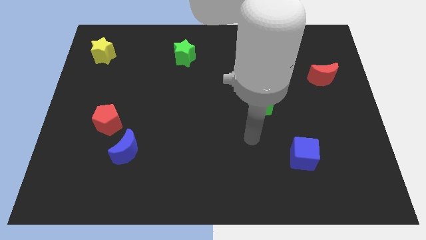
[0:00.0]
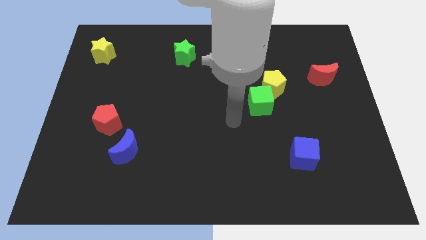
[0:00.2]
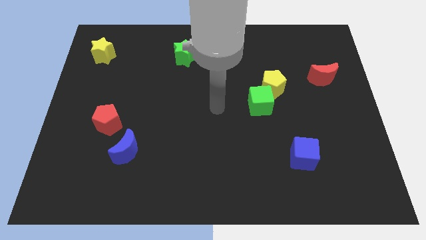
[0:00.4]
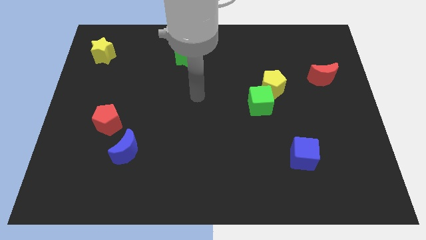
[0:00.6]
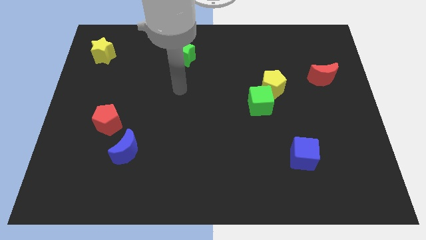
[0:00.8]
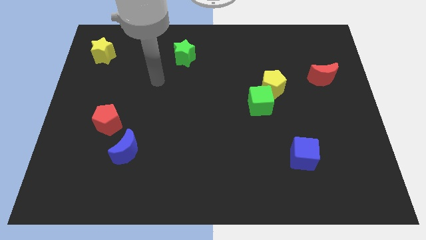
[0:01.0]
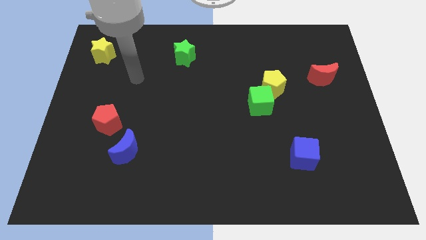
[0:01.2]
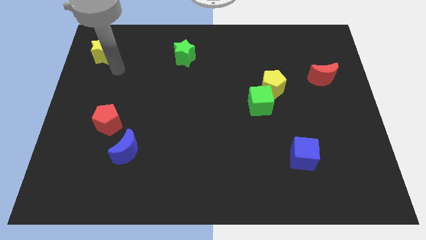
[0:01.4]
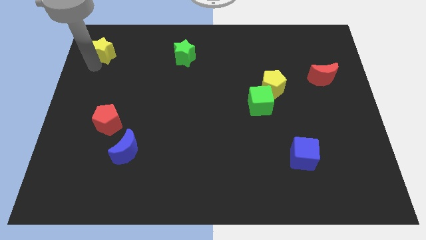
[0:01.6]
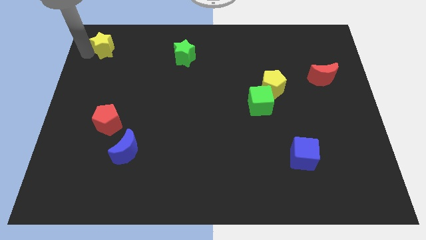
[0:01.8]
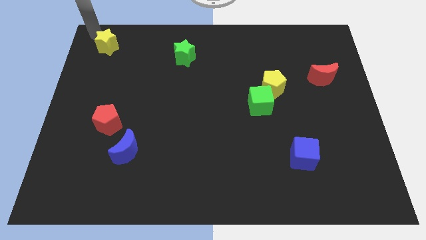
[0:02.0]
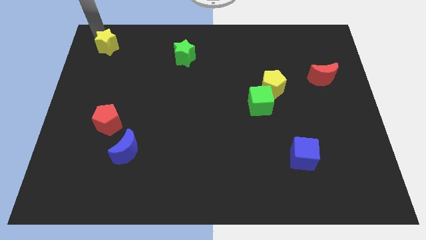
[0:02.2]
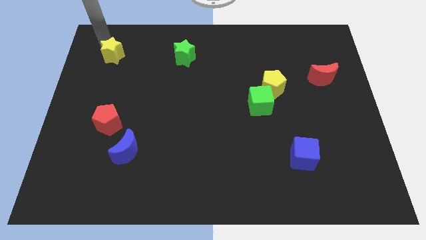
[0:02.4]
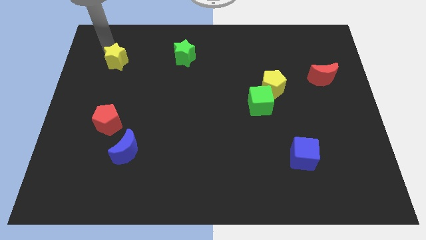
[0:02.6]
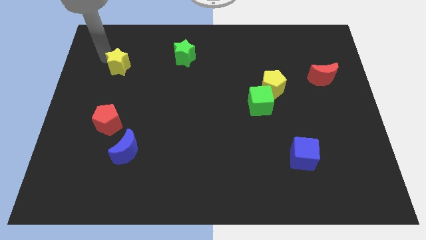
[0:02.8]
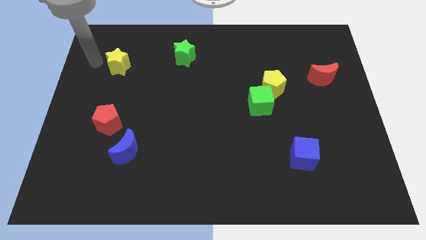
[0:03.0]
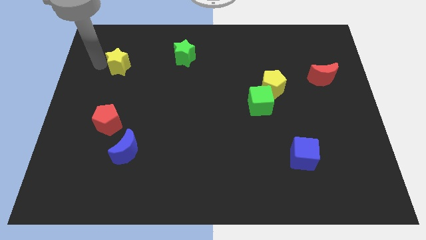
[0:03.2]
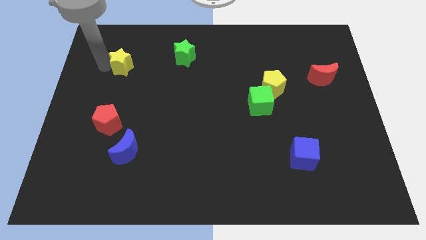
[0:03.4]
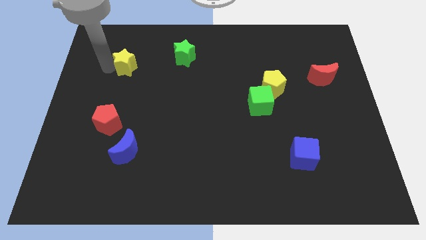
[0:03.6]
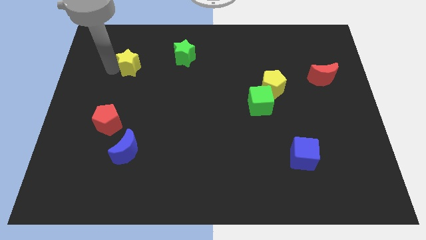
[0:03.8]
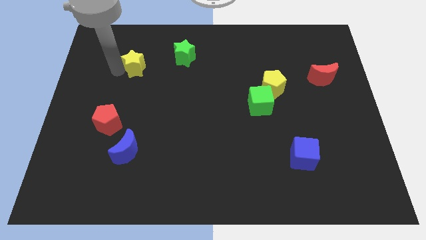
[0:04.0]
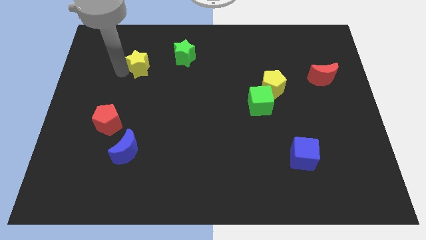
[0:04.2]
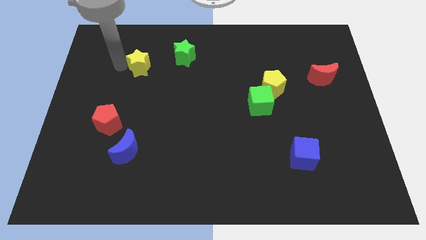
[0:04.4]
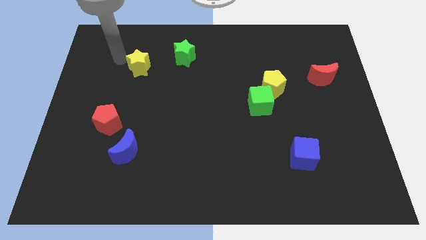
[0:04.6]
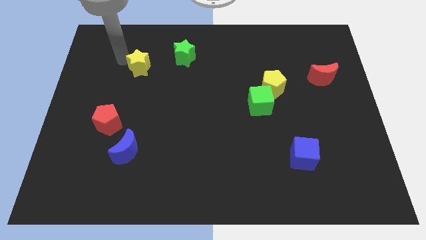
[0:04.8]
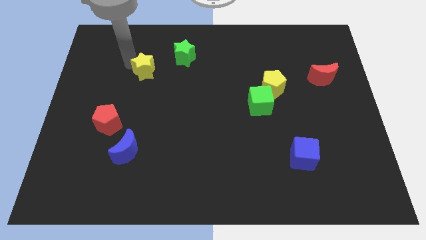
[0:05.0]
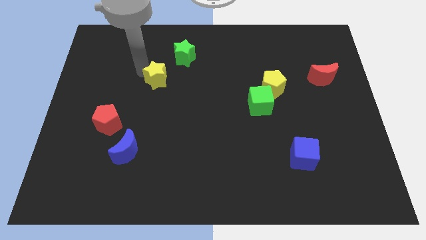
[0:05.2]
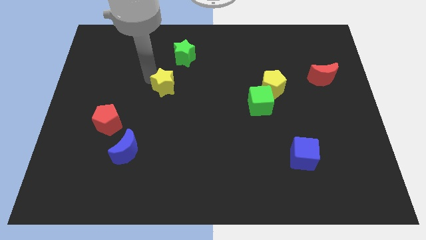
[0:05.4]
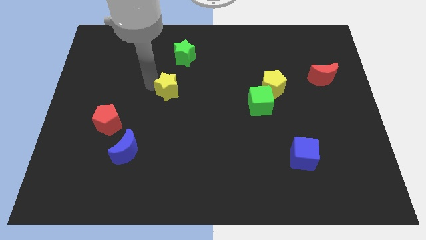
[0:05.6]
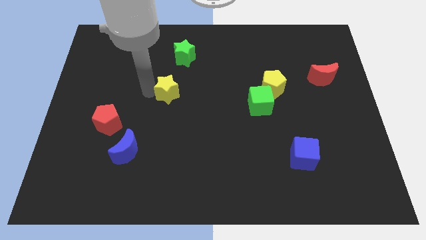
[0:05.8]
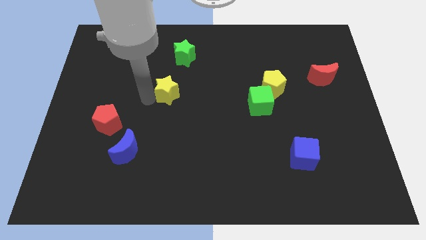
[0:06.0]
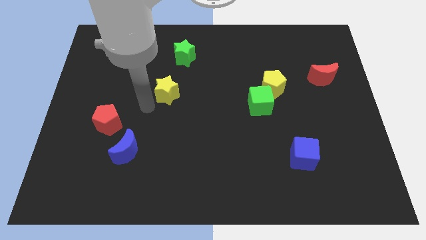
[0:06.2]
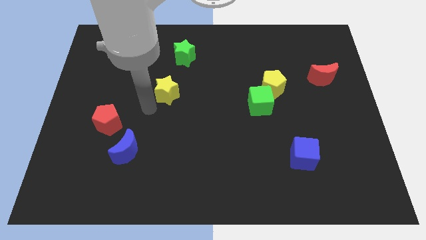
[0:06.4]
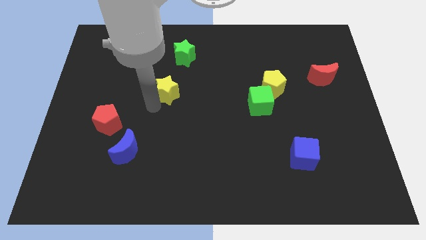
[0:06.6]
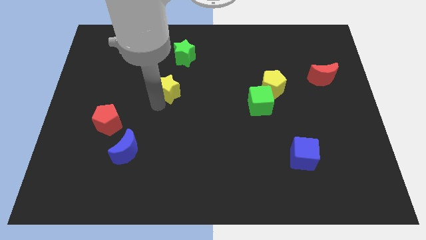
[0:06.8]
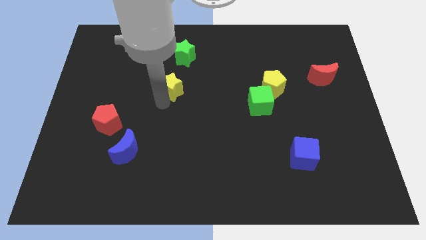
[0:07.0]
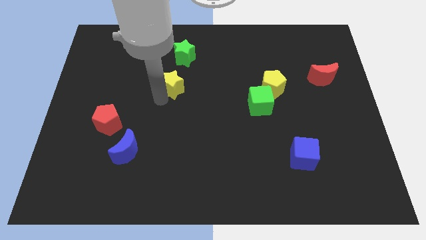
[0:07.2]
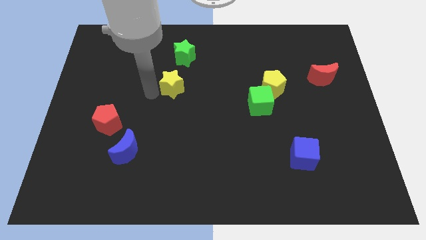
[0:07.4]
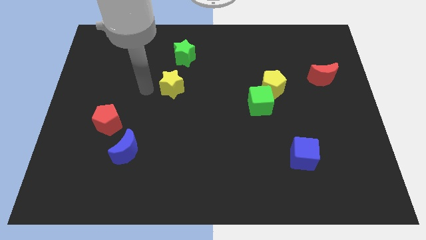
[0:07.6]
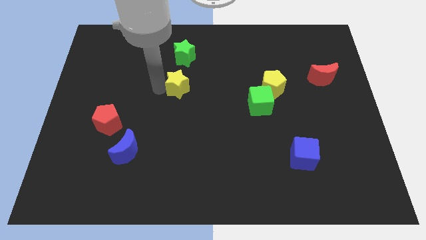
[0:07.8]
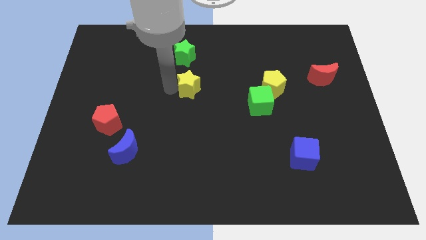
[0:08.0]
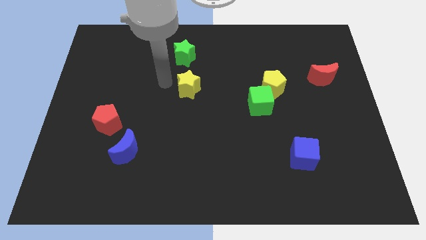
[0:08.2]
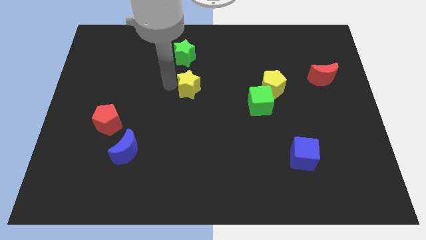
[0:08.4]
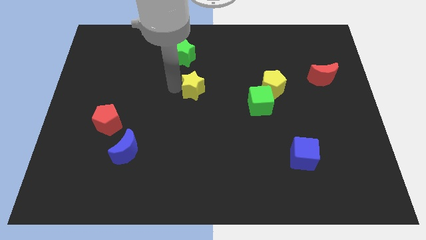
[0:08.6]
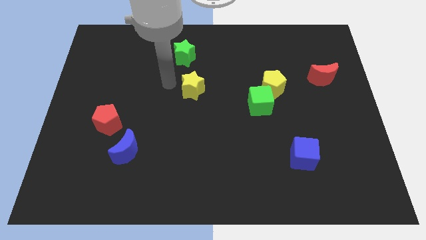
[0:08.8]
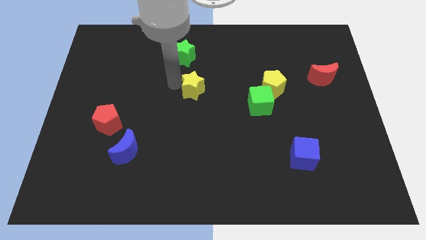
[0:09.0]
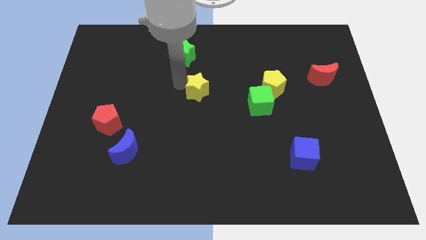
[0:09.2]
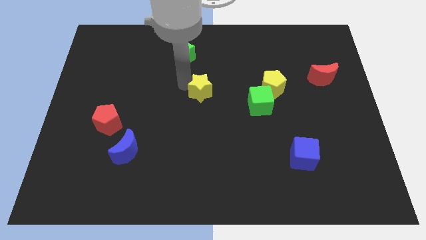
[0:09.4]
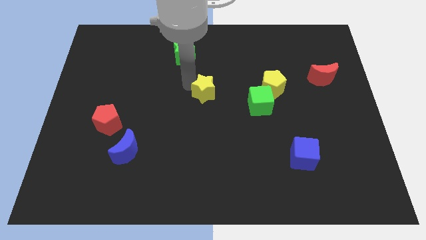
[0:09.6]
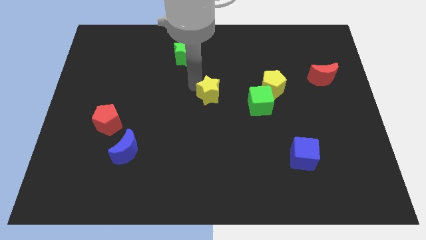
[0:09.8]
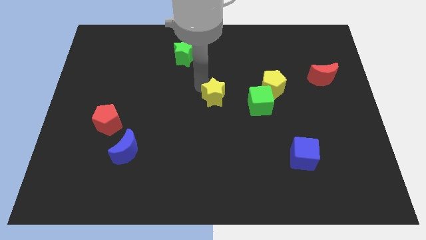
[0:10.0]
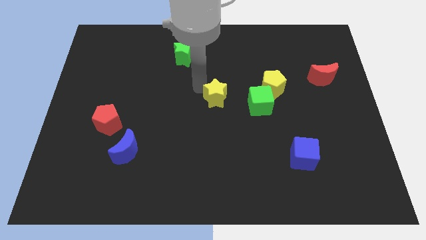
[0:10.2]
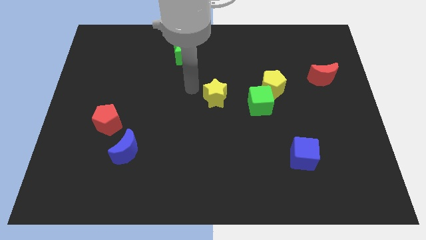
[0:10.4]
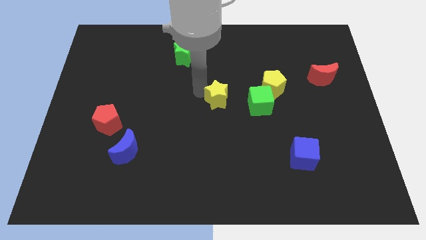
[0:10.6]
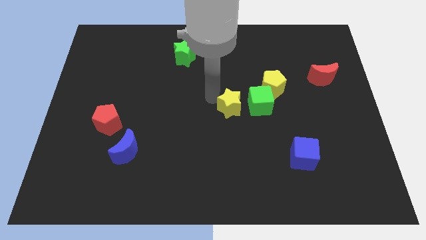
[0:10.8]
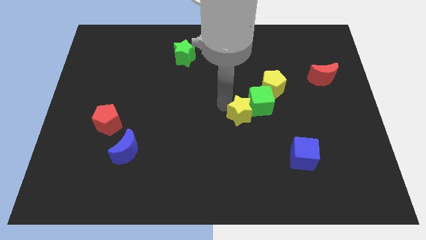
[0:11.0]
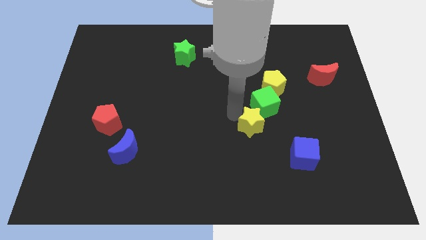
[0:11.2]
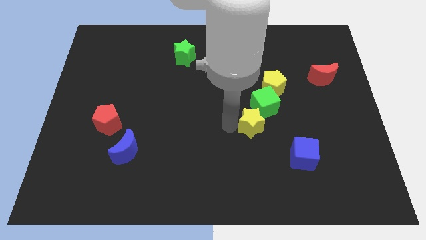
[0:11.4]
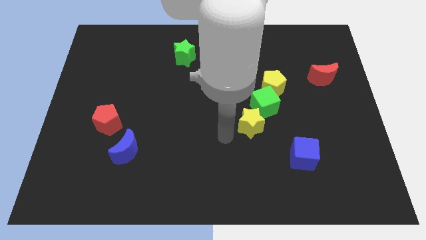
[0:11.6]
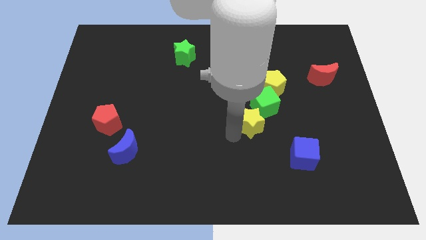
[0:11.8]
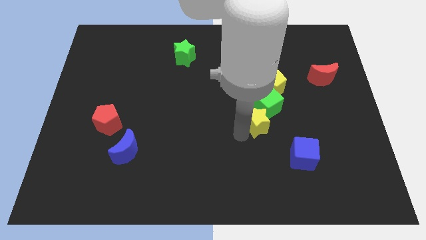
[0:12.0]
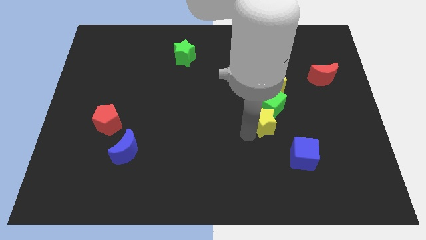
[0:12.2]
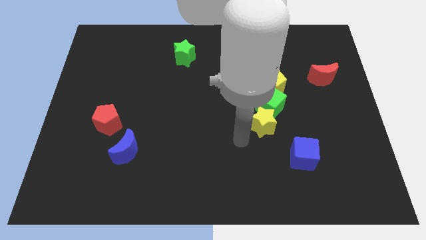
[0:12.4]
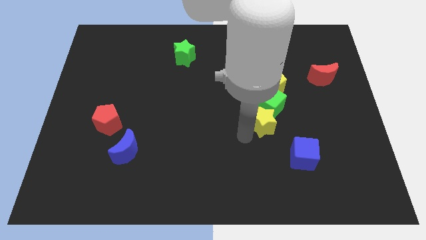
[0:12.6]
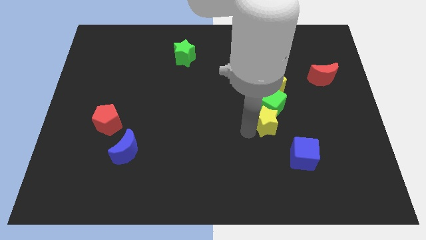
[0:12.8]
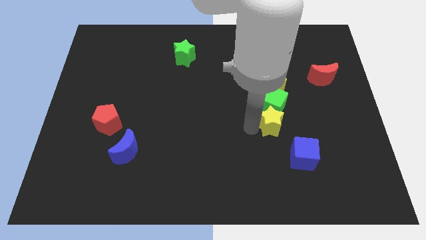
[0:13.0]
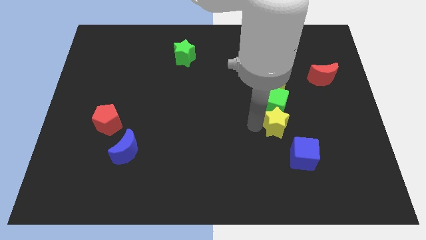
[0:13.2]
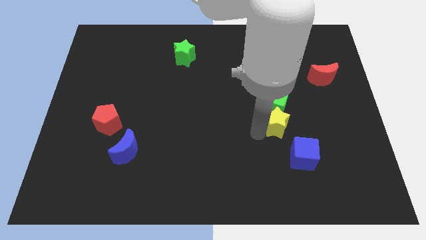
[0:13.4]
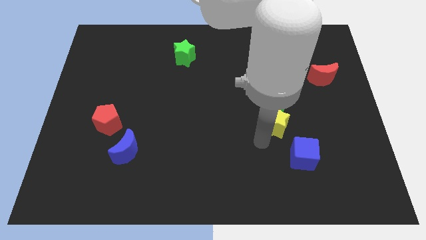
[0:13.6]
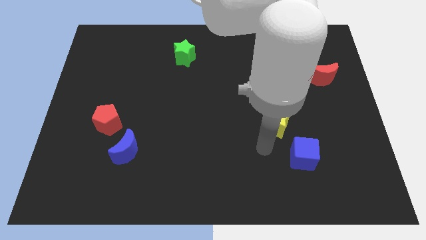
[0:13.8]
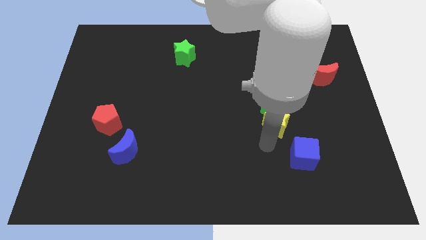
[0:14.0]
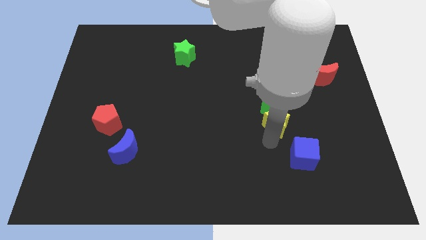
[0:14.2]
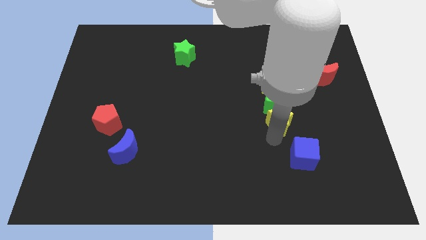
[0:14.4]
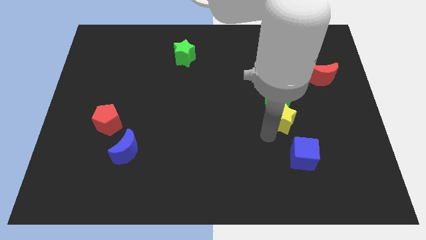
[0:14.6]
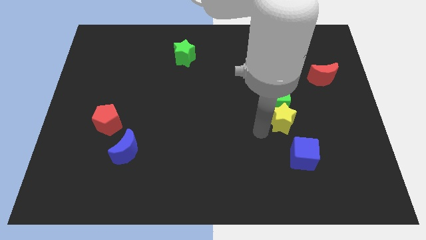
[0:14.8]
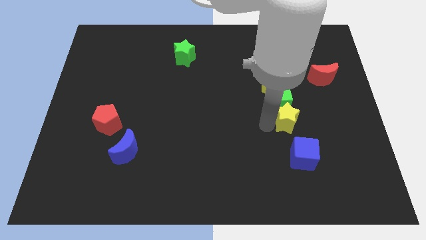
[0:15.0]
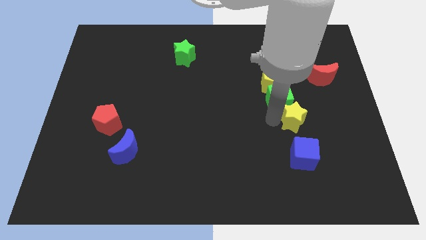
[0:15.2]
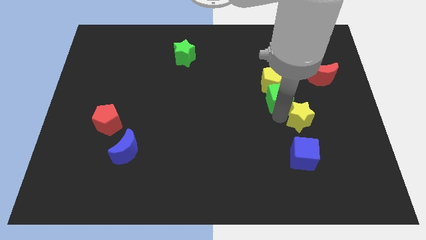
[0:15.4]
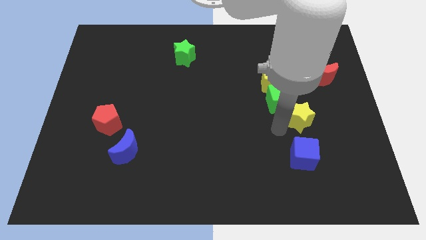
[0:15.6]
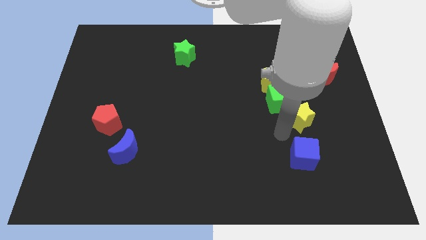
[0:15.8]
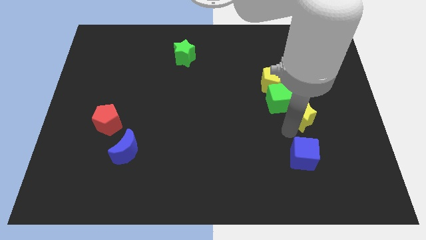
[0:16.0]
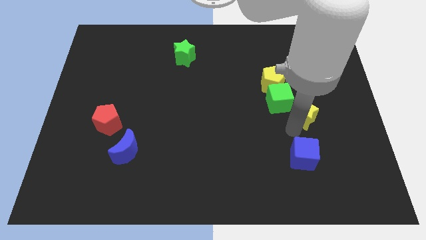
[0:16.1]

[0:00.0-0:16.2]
put the yellow star just right of the green cube
